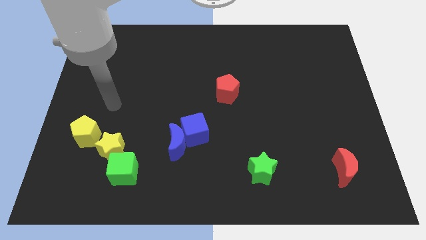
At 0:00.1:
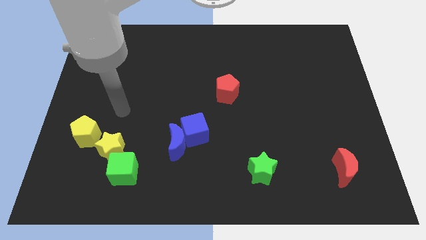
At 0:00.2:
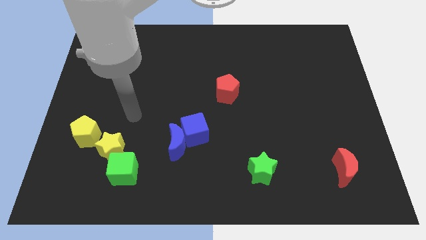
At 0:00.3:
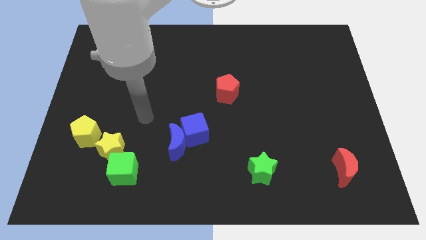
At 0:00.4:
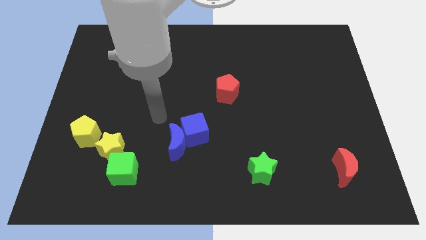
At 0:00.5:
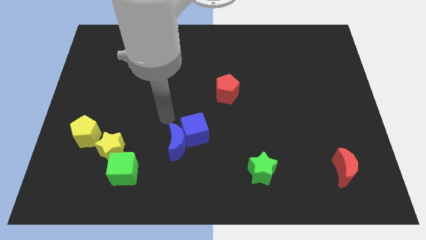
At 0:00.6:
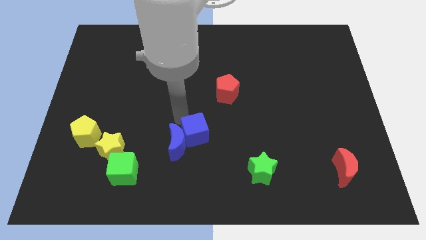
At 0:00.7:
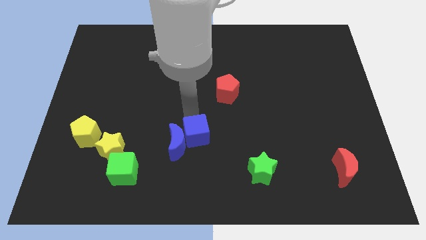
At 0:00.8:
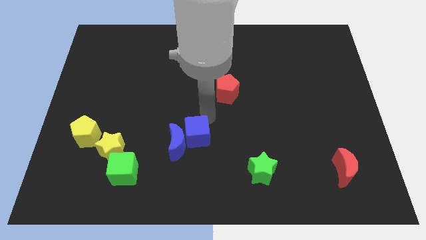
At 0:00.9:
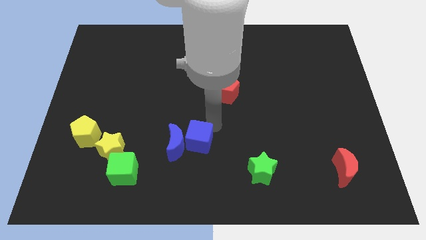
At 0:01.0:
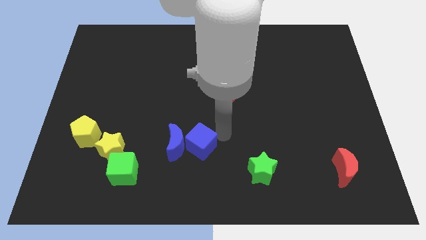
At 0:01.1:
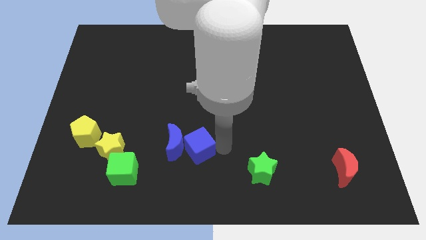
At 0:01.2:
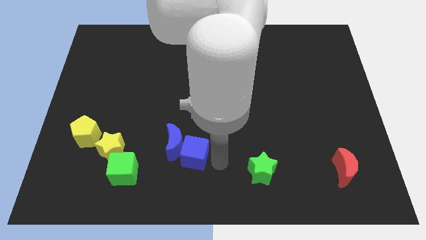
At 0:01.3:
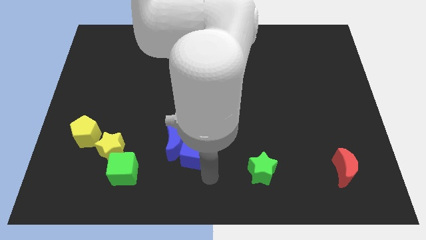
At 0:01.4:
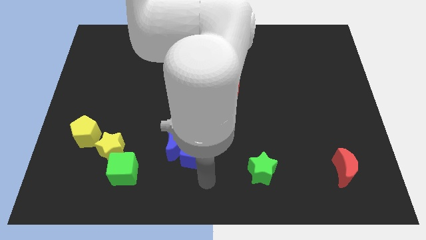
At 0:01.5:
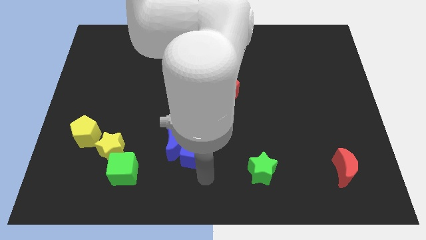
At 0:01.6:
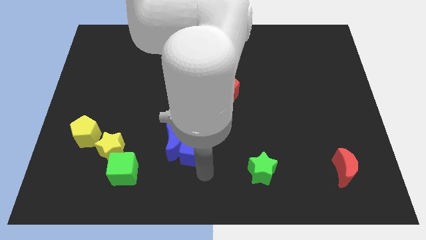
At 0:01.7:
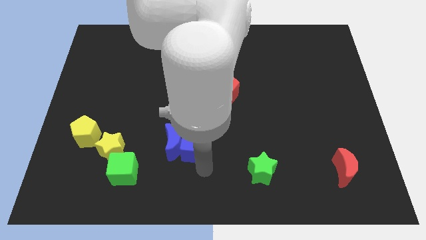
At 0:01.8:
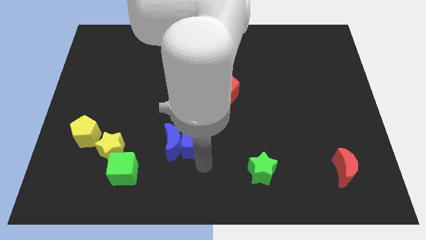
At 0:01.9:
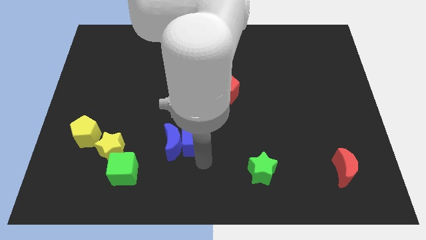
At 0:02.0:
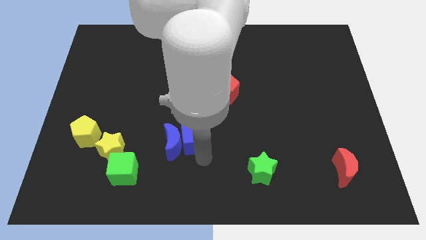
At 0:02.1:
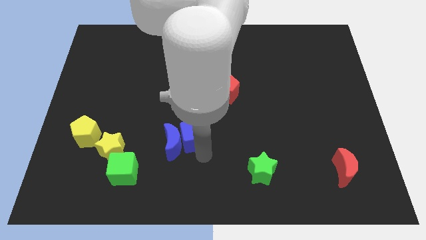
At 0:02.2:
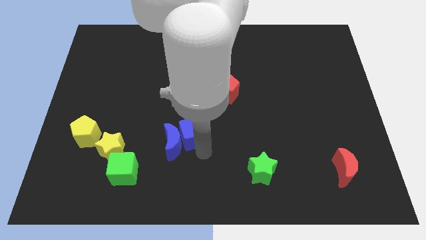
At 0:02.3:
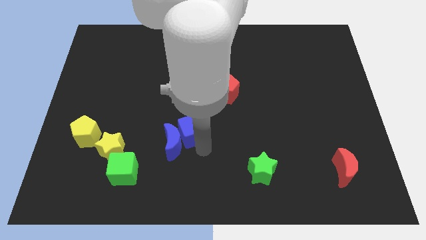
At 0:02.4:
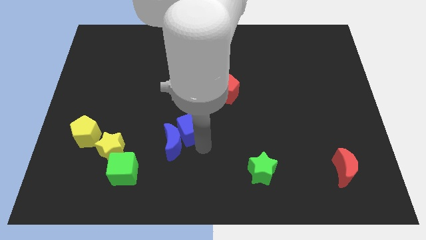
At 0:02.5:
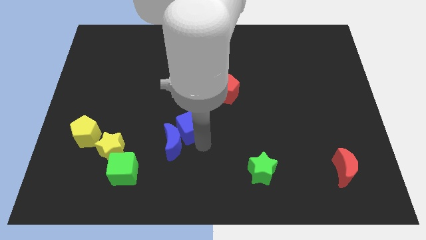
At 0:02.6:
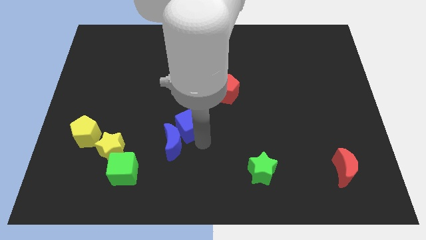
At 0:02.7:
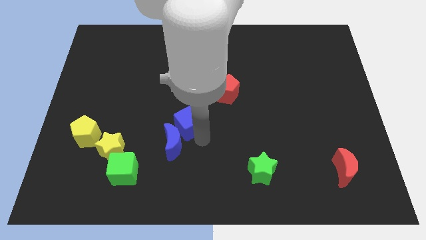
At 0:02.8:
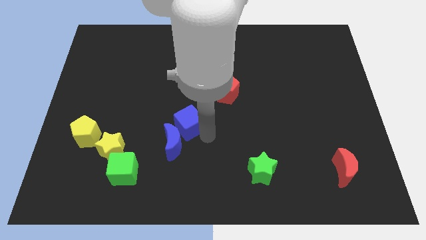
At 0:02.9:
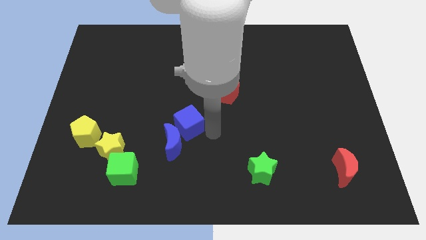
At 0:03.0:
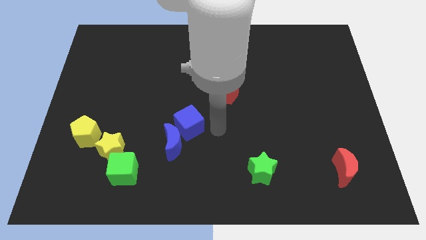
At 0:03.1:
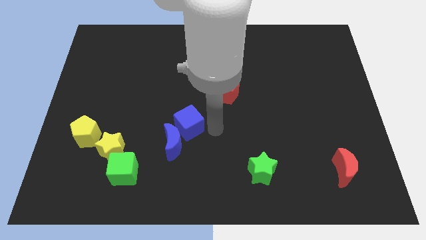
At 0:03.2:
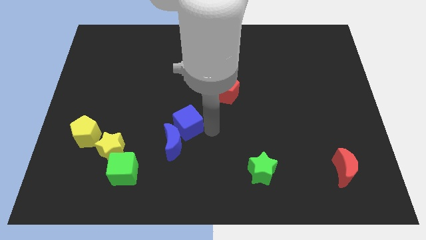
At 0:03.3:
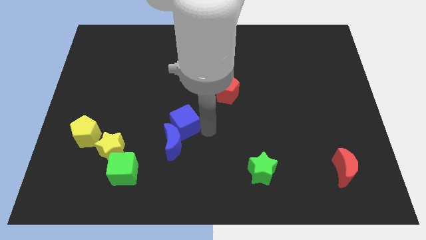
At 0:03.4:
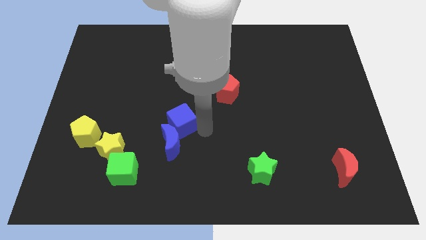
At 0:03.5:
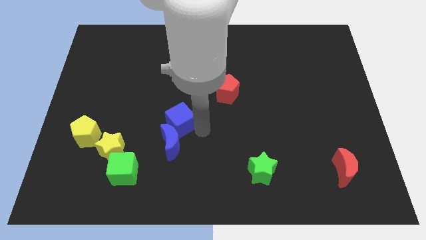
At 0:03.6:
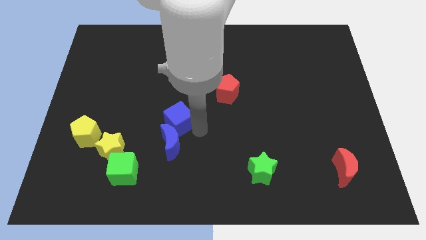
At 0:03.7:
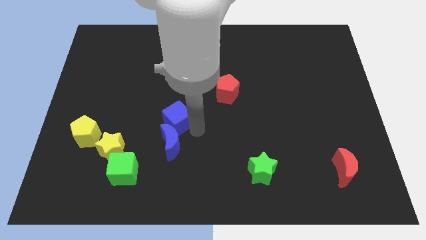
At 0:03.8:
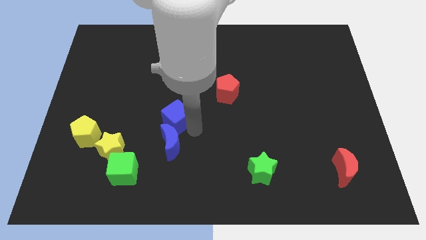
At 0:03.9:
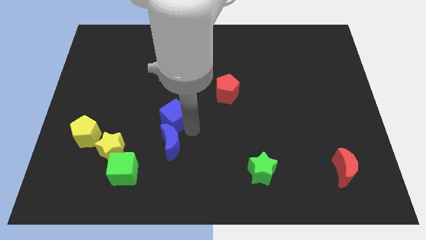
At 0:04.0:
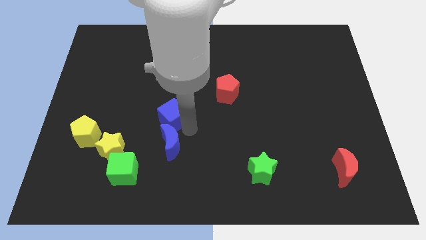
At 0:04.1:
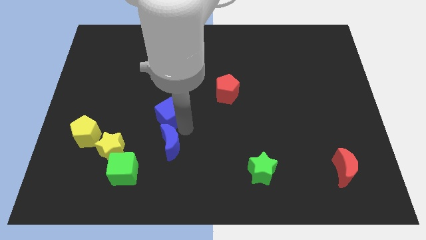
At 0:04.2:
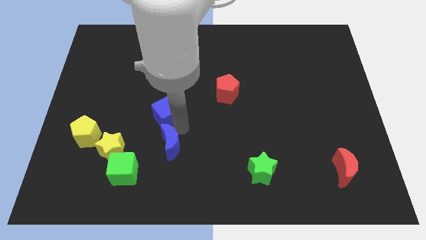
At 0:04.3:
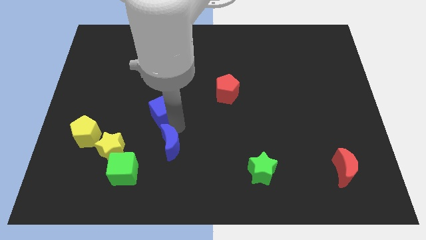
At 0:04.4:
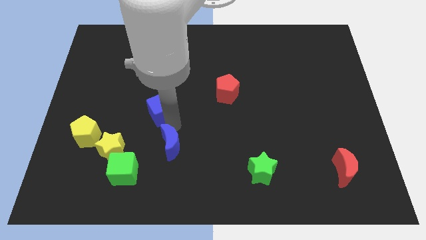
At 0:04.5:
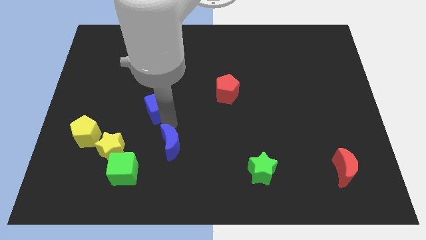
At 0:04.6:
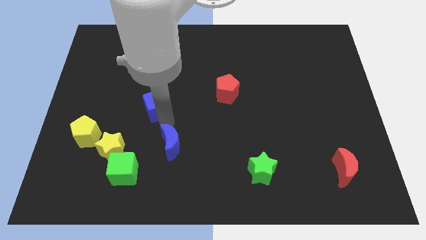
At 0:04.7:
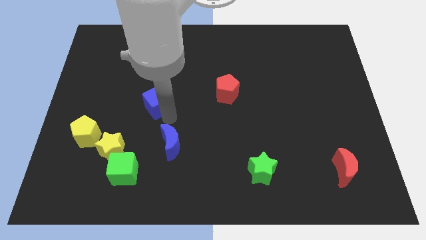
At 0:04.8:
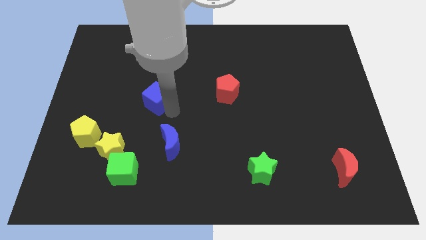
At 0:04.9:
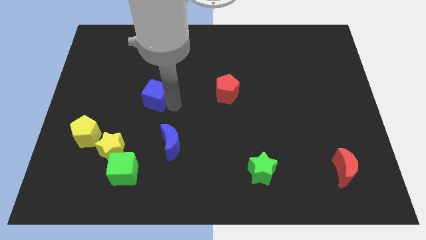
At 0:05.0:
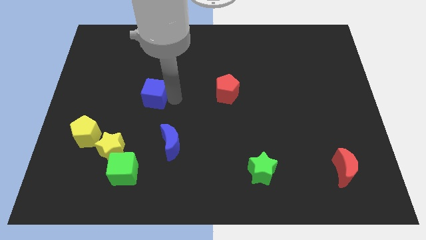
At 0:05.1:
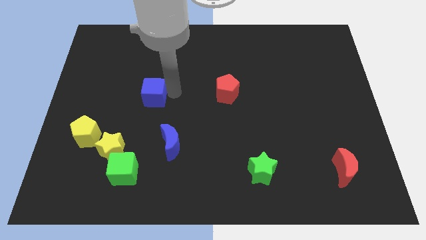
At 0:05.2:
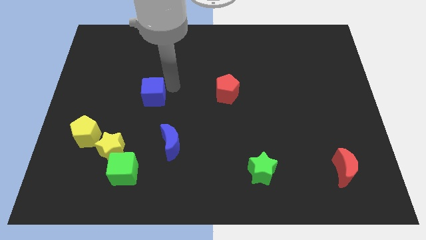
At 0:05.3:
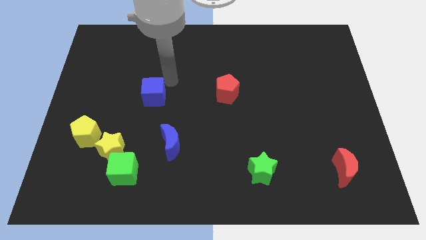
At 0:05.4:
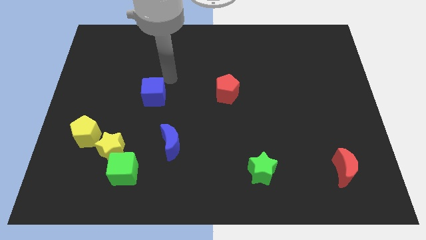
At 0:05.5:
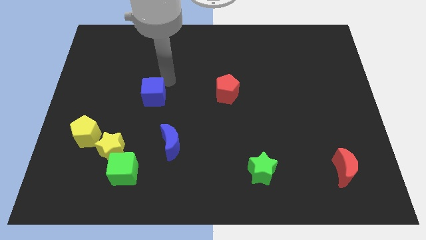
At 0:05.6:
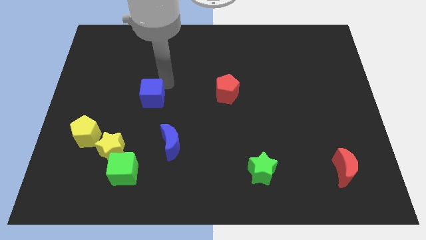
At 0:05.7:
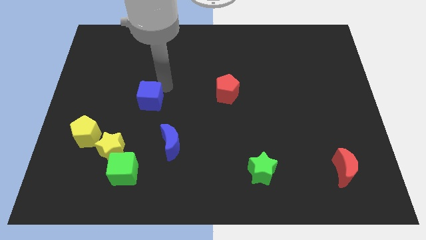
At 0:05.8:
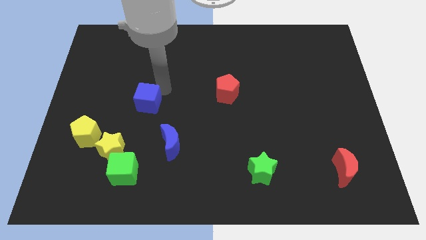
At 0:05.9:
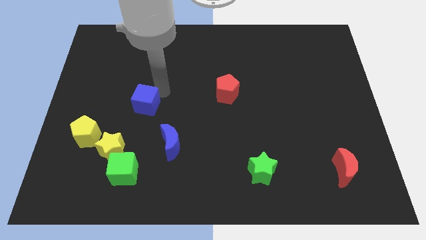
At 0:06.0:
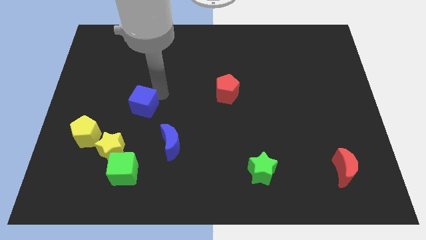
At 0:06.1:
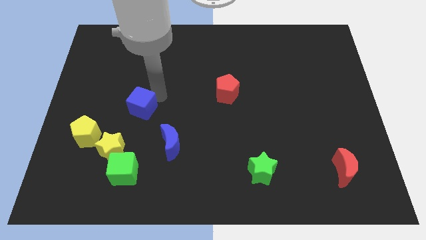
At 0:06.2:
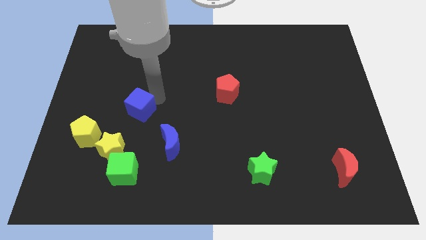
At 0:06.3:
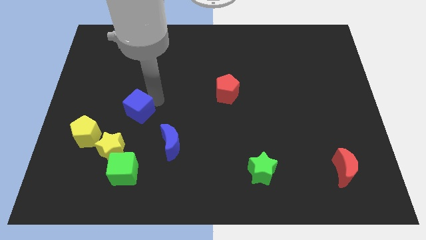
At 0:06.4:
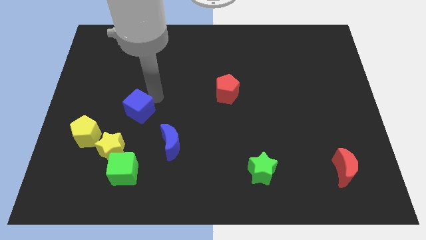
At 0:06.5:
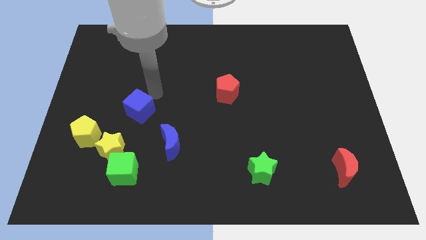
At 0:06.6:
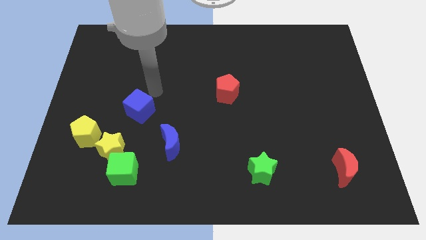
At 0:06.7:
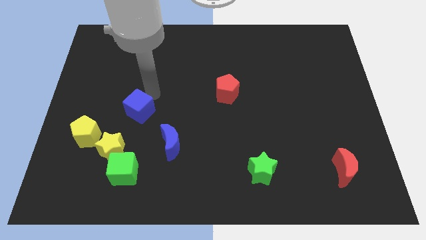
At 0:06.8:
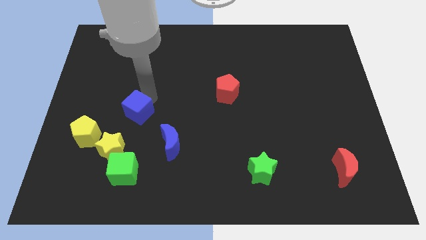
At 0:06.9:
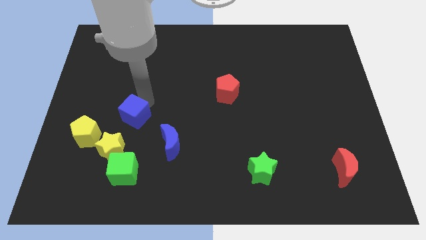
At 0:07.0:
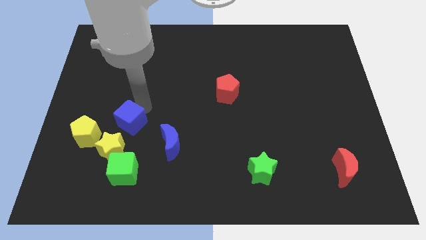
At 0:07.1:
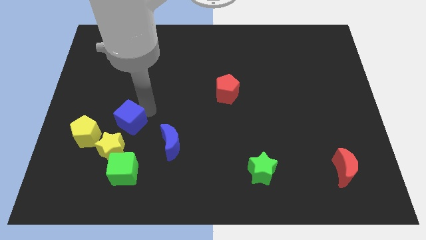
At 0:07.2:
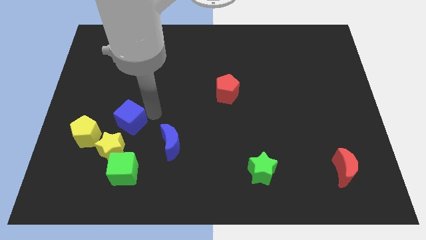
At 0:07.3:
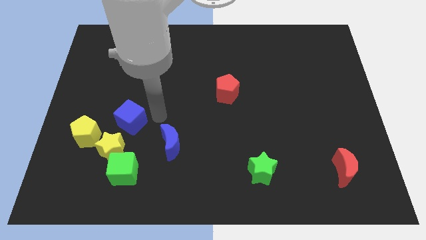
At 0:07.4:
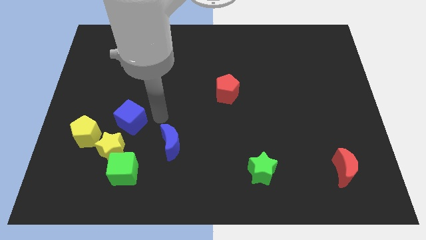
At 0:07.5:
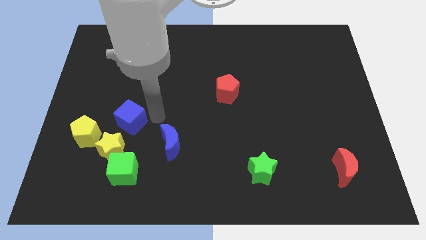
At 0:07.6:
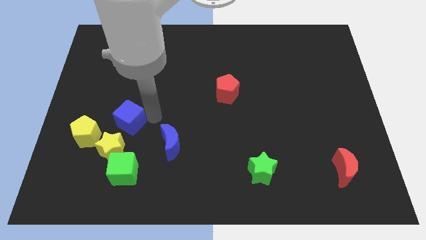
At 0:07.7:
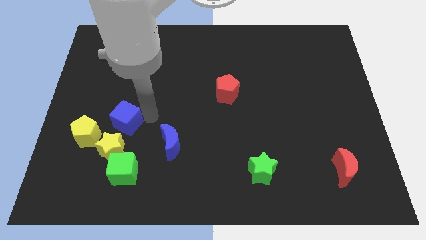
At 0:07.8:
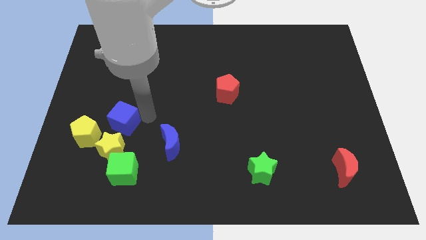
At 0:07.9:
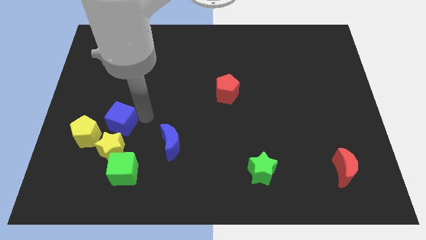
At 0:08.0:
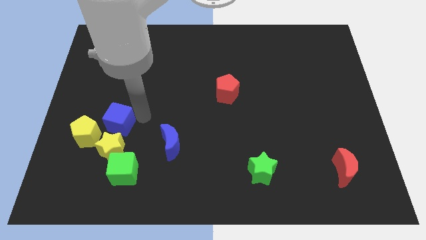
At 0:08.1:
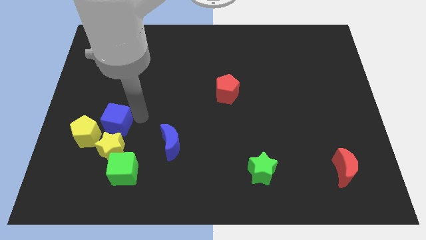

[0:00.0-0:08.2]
put the blue cube to the top left side of the yellow star
